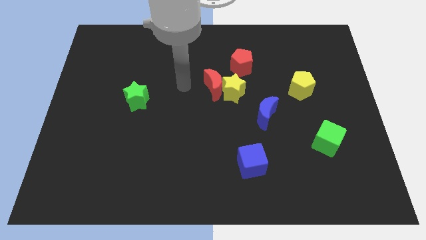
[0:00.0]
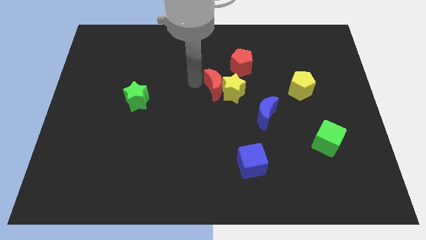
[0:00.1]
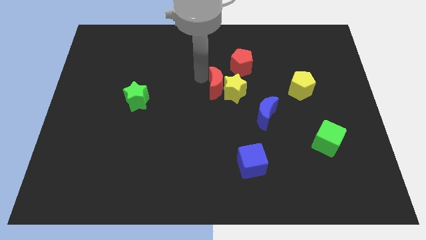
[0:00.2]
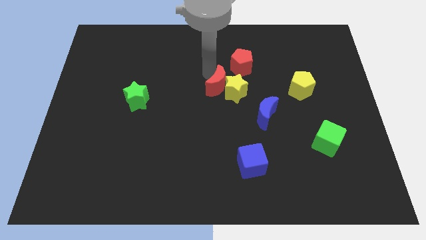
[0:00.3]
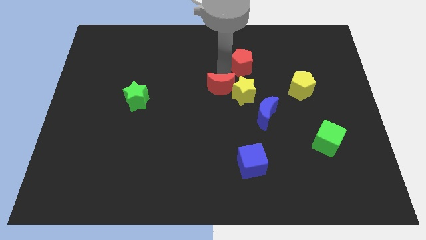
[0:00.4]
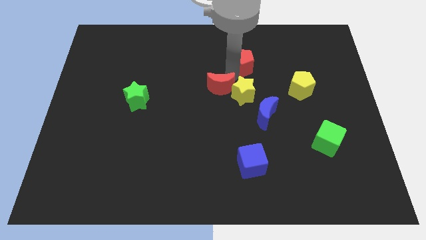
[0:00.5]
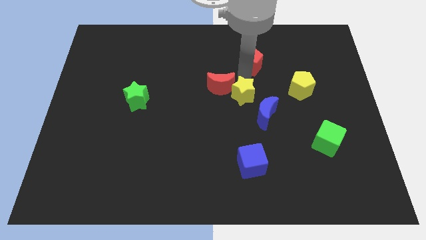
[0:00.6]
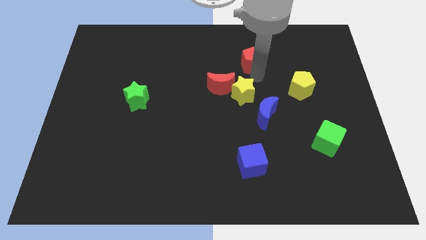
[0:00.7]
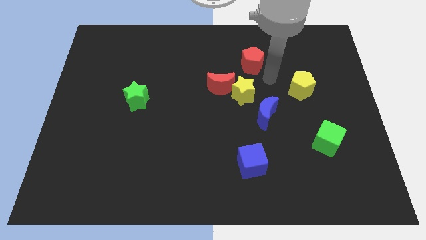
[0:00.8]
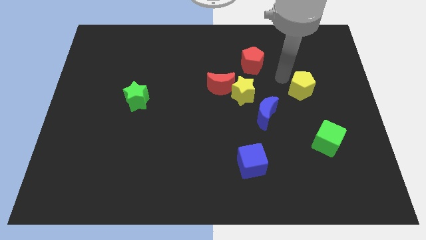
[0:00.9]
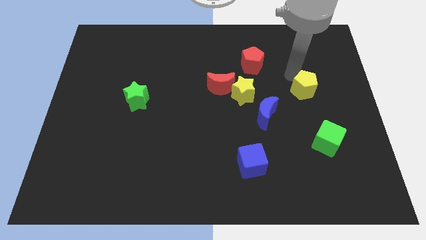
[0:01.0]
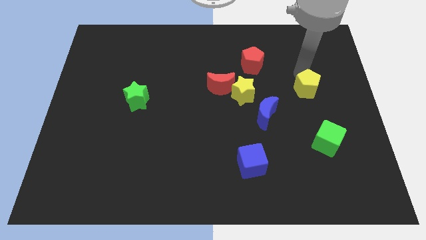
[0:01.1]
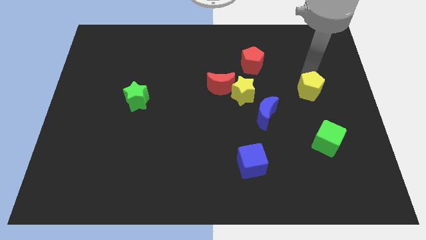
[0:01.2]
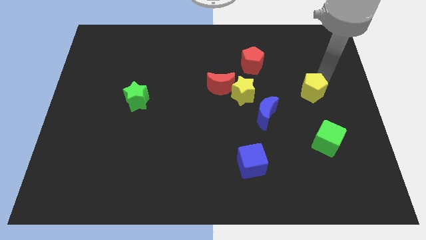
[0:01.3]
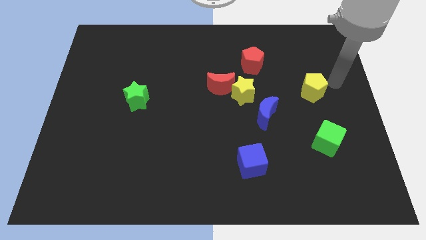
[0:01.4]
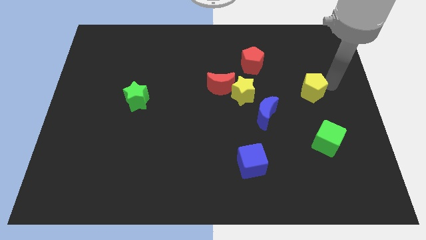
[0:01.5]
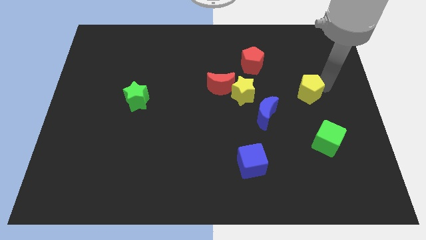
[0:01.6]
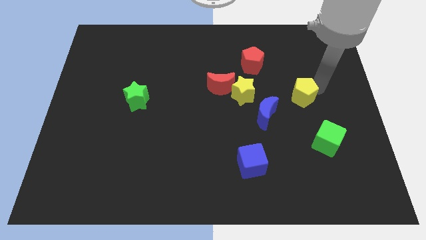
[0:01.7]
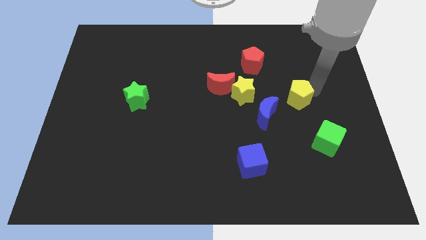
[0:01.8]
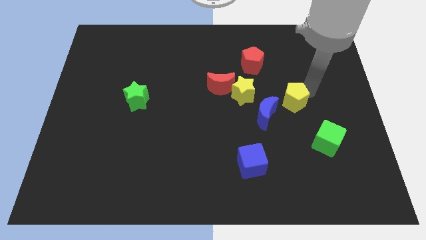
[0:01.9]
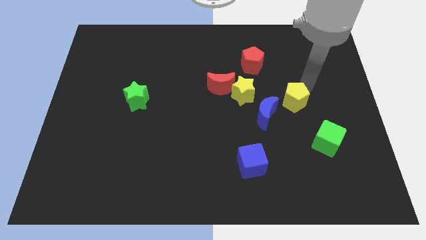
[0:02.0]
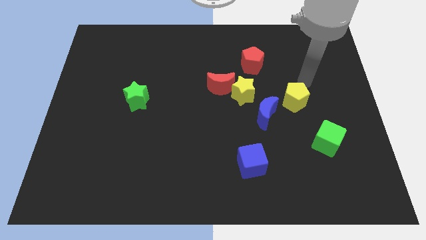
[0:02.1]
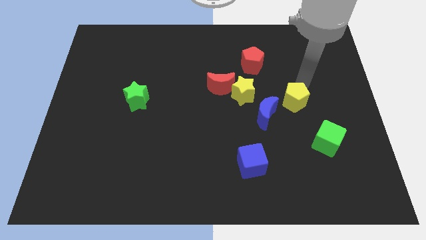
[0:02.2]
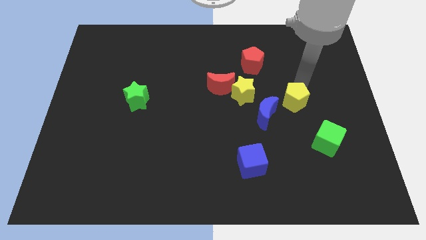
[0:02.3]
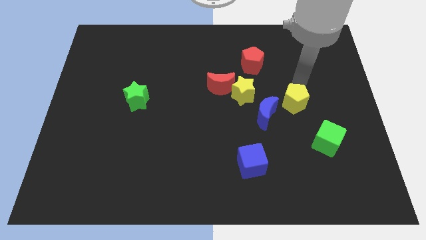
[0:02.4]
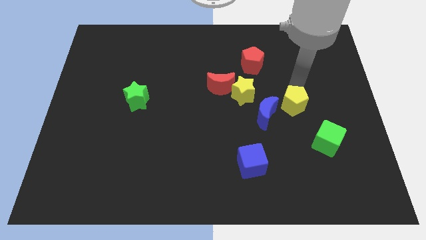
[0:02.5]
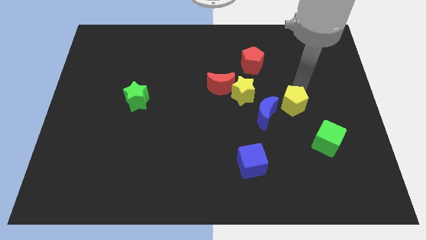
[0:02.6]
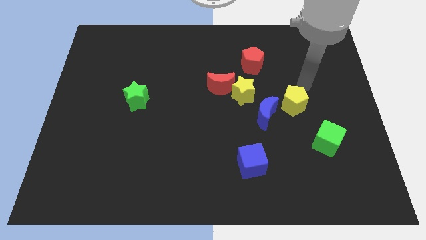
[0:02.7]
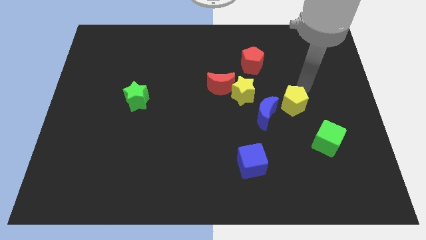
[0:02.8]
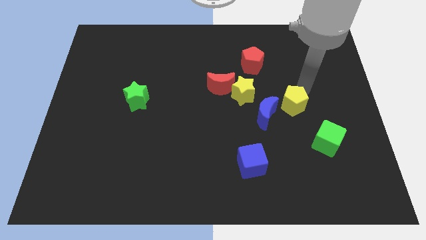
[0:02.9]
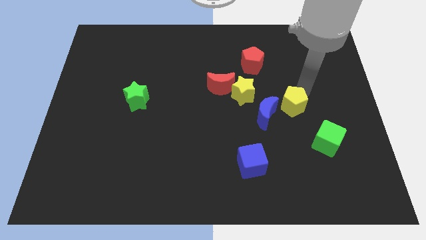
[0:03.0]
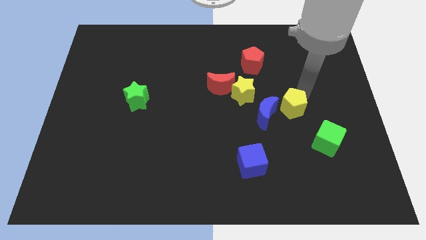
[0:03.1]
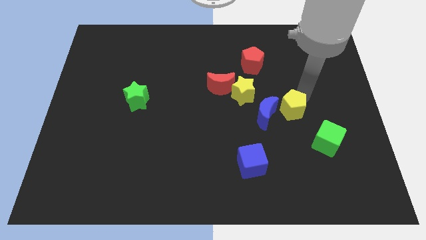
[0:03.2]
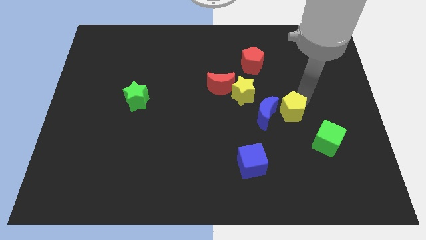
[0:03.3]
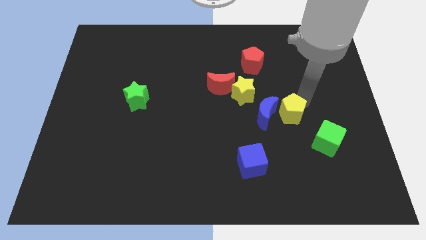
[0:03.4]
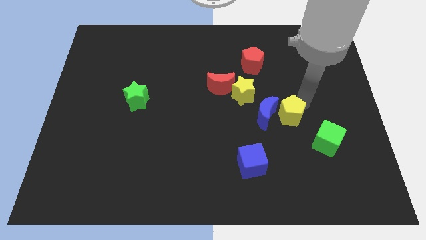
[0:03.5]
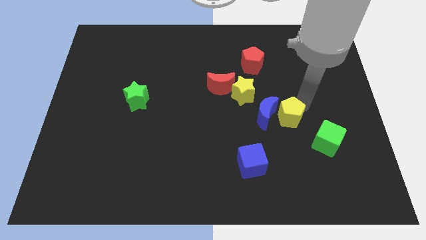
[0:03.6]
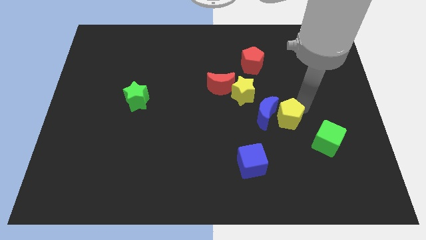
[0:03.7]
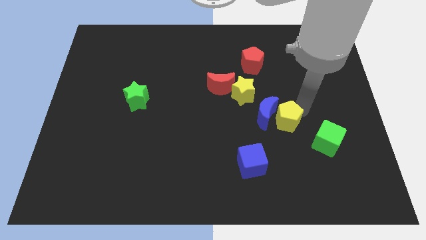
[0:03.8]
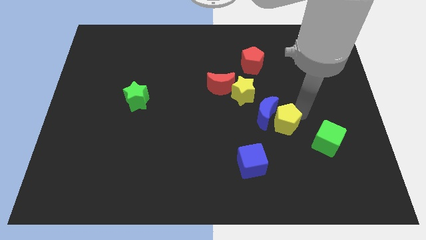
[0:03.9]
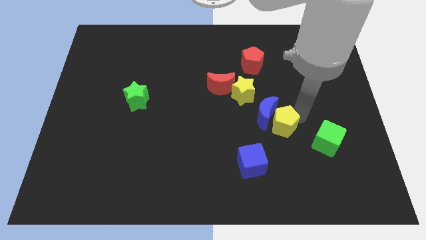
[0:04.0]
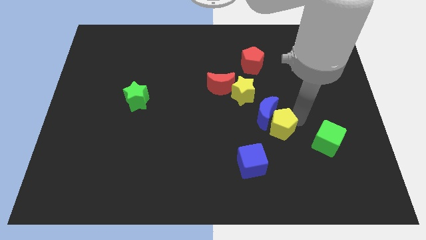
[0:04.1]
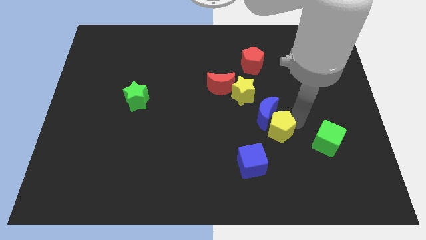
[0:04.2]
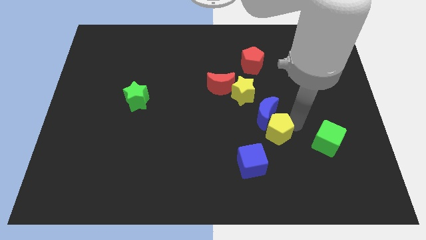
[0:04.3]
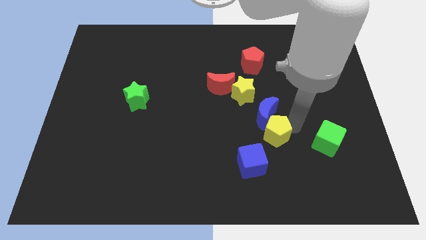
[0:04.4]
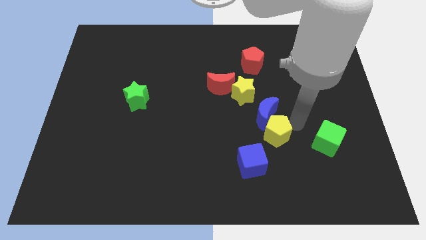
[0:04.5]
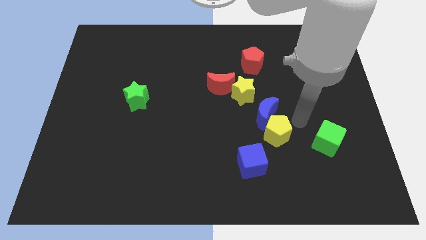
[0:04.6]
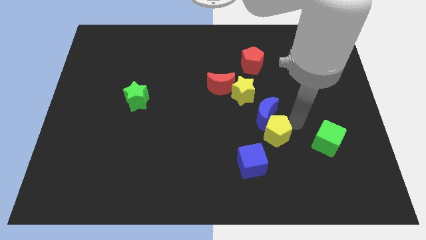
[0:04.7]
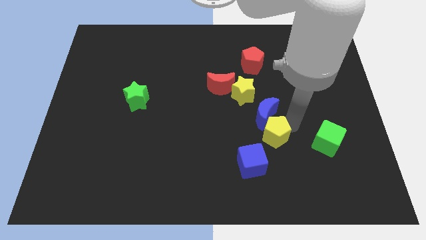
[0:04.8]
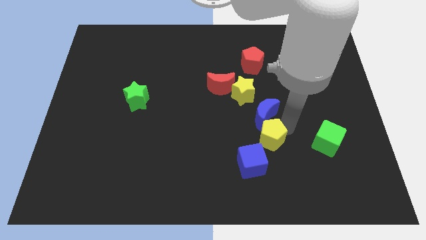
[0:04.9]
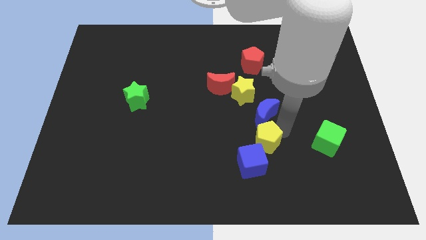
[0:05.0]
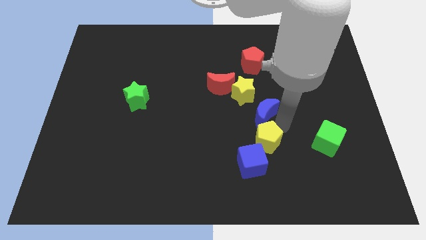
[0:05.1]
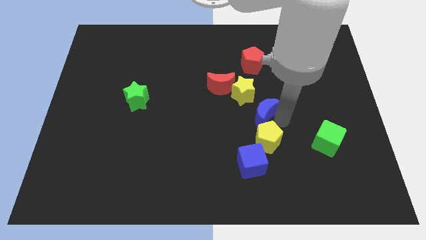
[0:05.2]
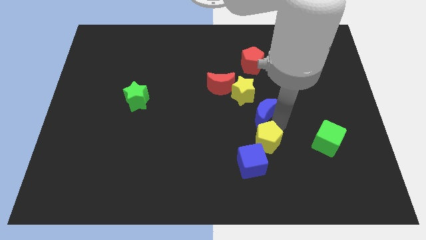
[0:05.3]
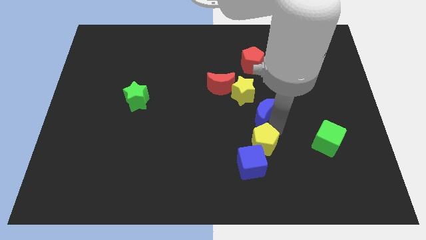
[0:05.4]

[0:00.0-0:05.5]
push the yellow pentagon towards the blue cube

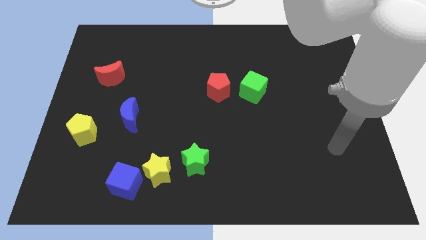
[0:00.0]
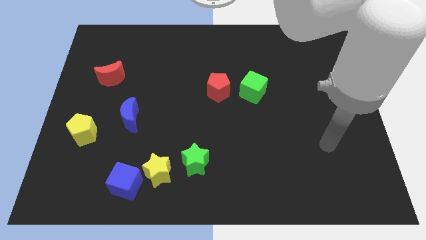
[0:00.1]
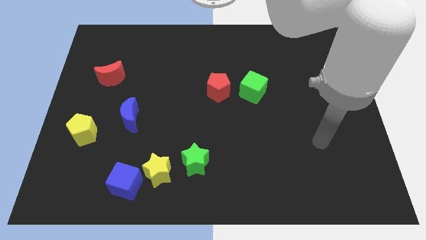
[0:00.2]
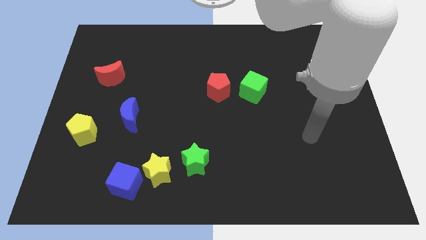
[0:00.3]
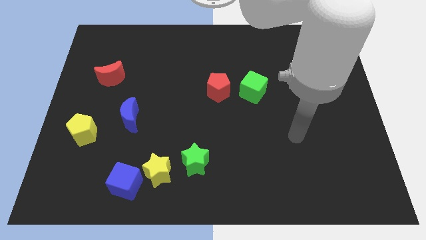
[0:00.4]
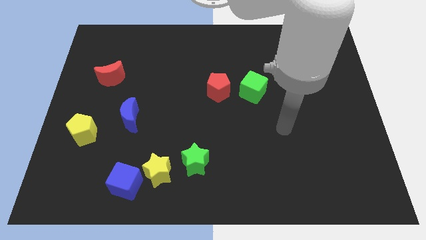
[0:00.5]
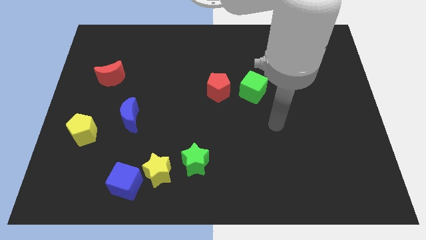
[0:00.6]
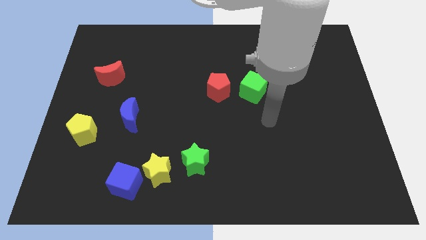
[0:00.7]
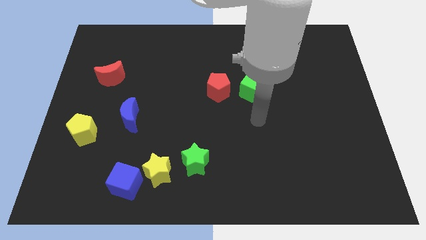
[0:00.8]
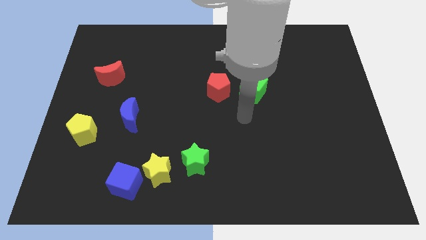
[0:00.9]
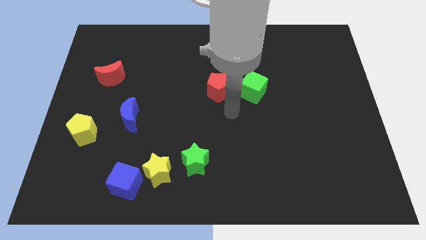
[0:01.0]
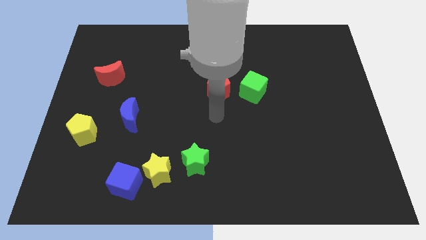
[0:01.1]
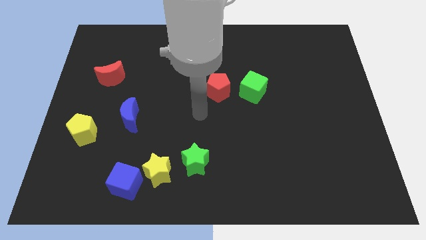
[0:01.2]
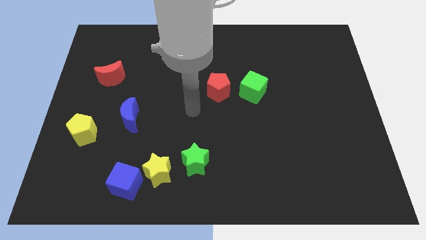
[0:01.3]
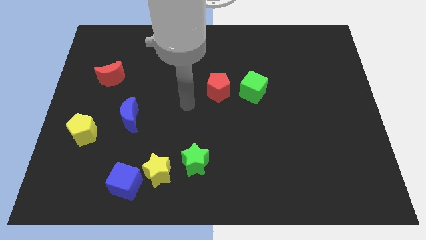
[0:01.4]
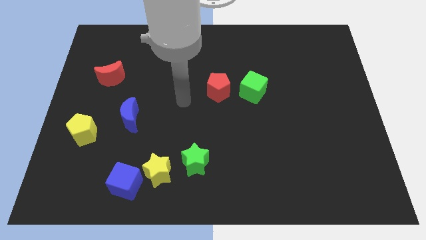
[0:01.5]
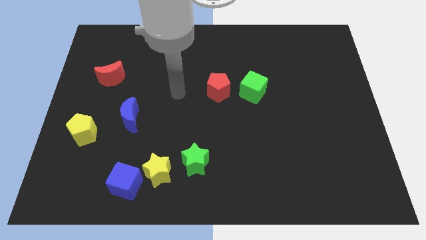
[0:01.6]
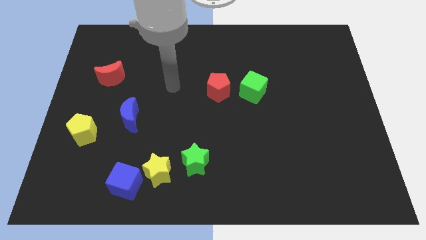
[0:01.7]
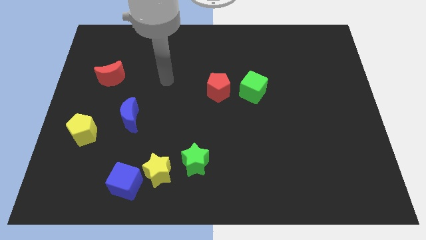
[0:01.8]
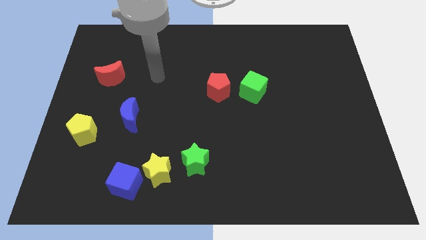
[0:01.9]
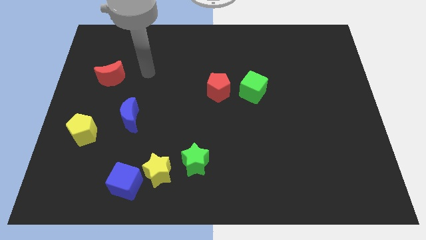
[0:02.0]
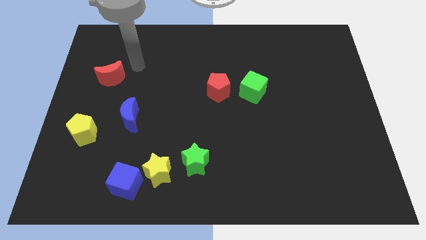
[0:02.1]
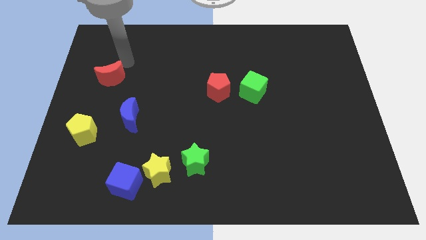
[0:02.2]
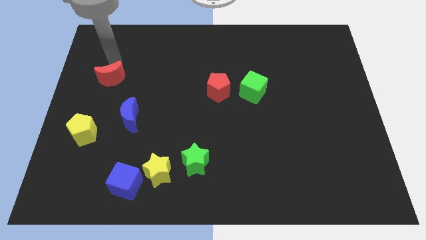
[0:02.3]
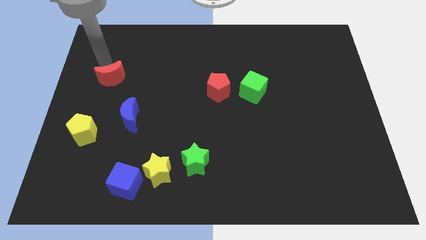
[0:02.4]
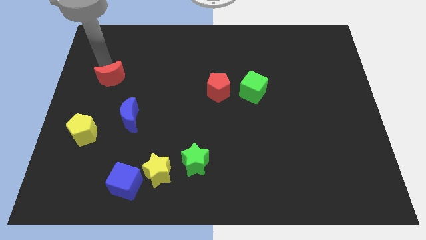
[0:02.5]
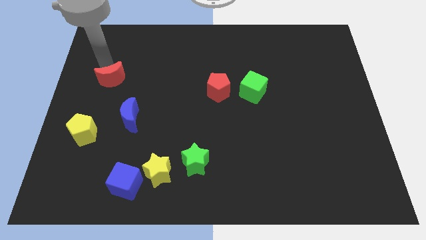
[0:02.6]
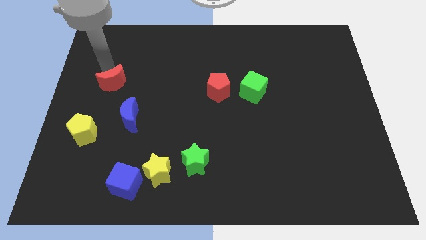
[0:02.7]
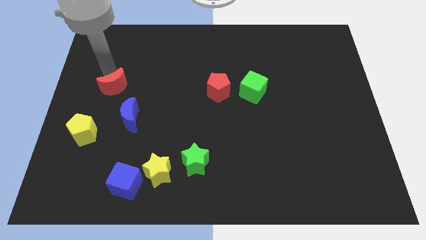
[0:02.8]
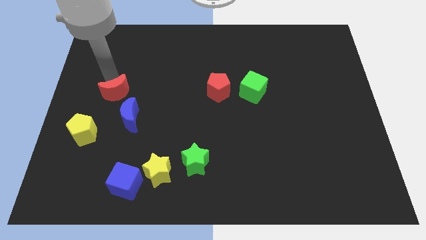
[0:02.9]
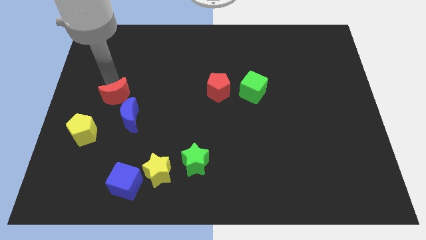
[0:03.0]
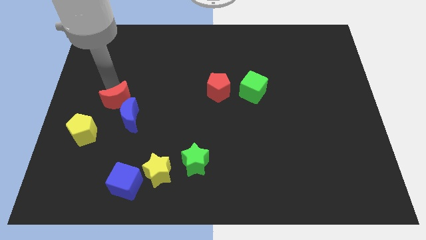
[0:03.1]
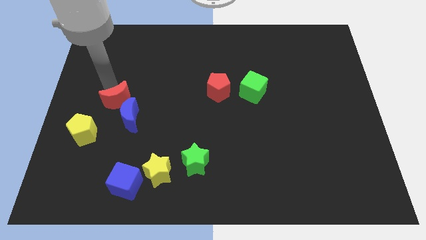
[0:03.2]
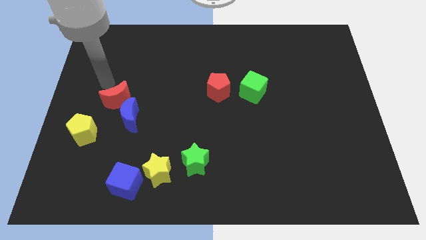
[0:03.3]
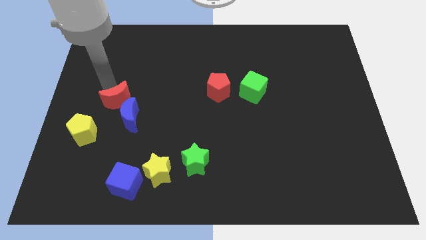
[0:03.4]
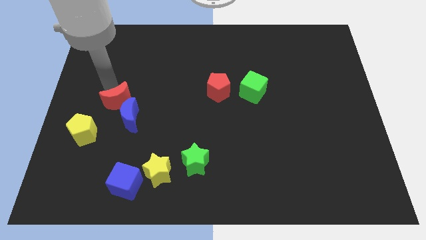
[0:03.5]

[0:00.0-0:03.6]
move the red moon to the blue moon
